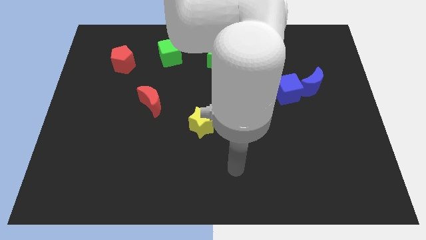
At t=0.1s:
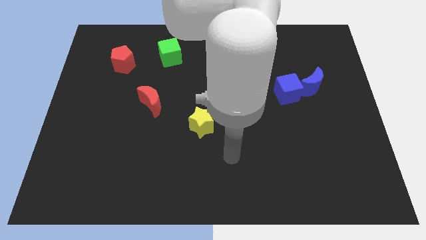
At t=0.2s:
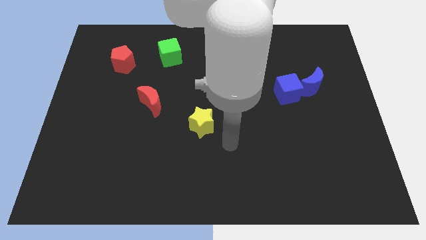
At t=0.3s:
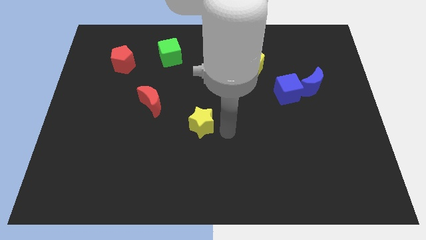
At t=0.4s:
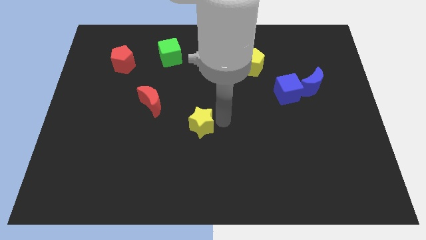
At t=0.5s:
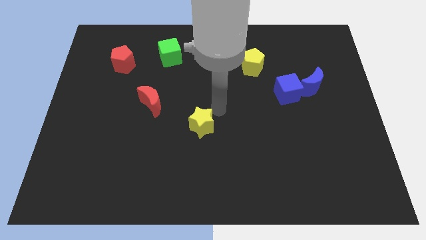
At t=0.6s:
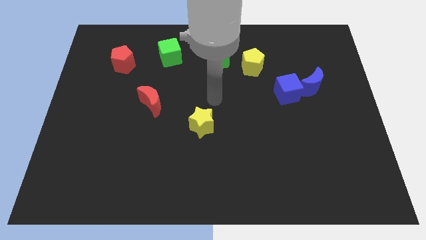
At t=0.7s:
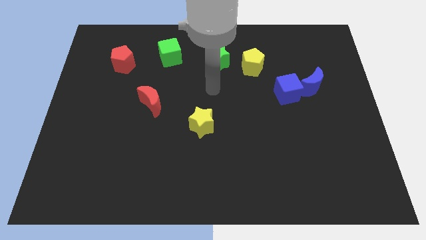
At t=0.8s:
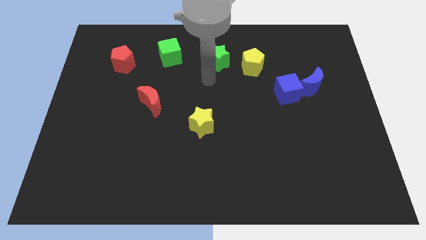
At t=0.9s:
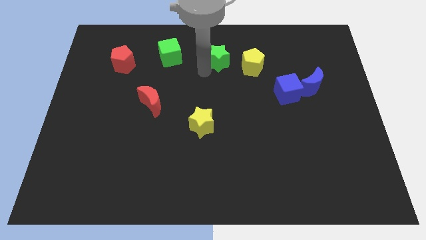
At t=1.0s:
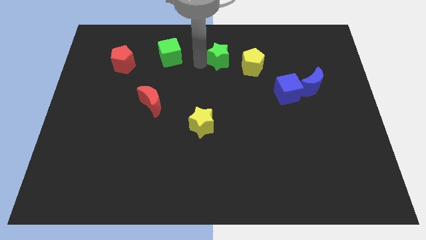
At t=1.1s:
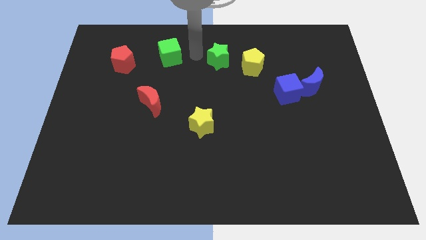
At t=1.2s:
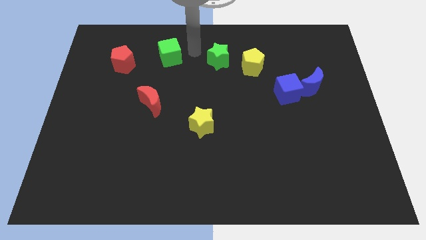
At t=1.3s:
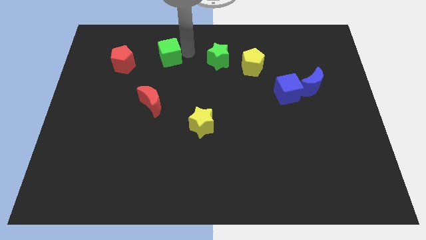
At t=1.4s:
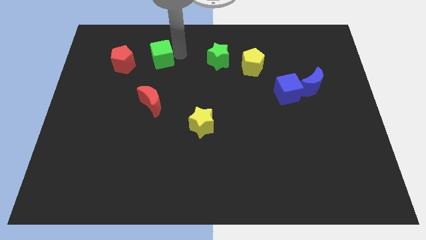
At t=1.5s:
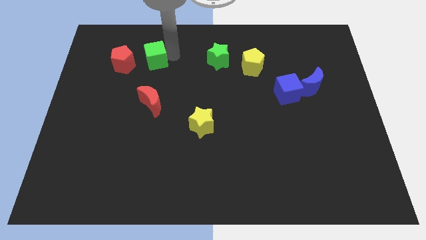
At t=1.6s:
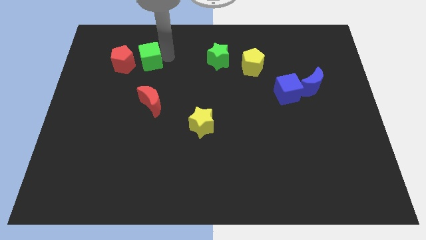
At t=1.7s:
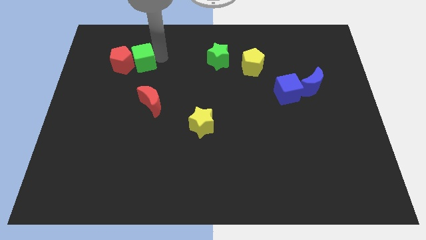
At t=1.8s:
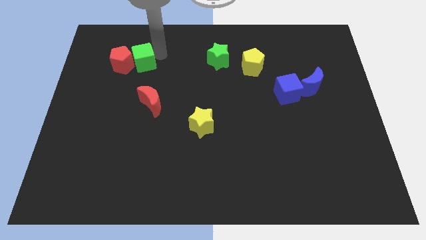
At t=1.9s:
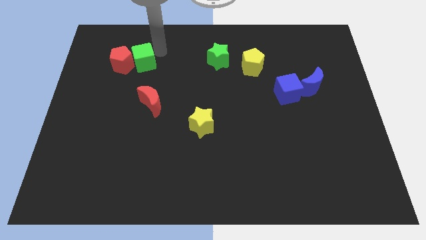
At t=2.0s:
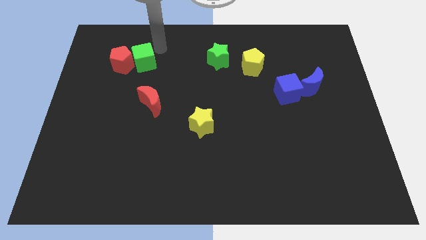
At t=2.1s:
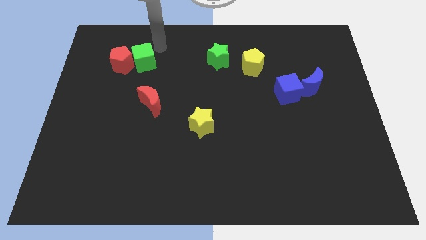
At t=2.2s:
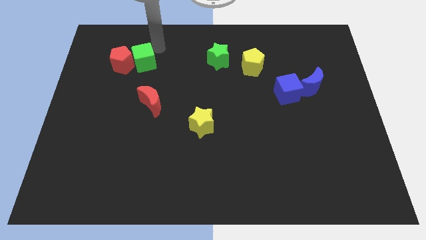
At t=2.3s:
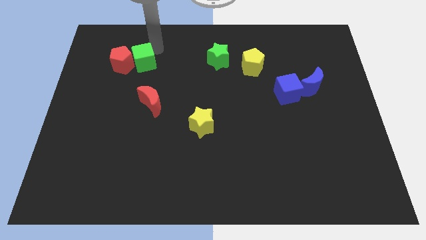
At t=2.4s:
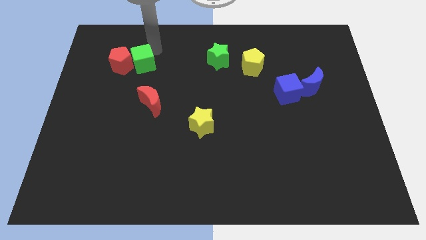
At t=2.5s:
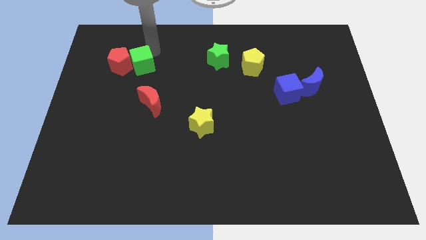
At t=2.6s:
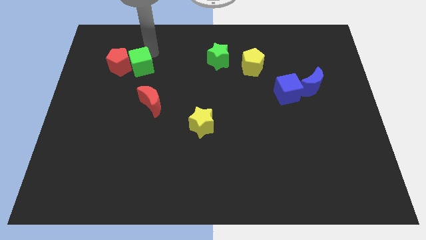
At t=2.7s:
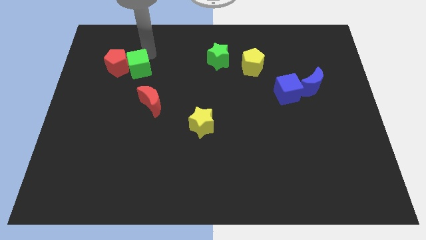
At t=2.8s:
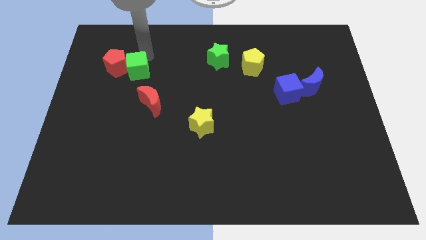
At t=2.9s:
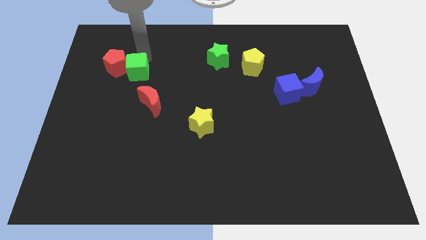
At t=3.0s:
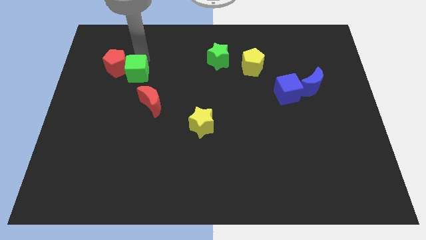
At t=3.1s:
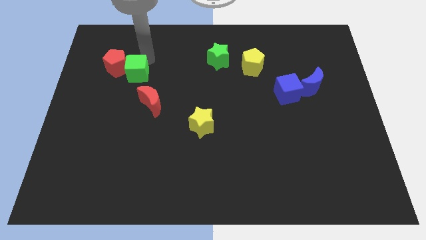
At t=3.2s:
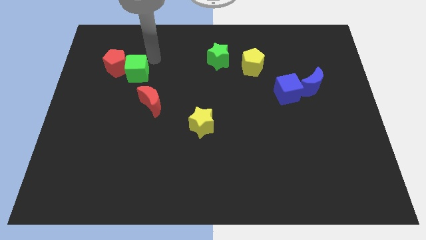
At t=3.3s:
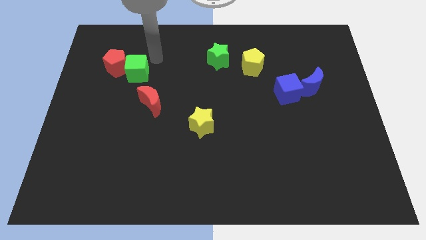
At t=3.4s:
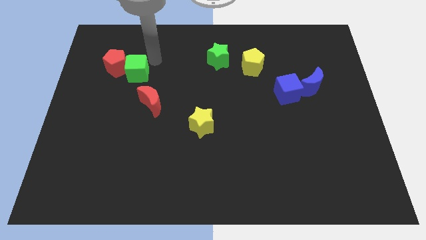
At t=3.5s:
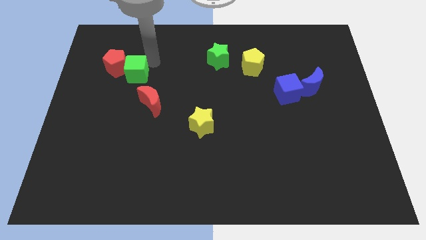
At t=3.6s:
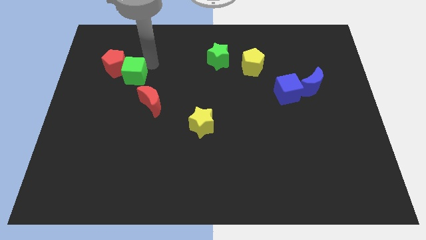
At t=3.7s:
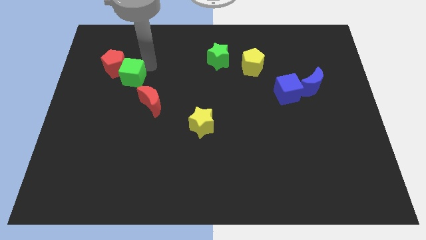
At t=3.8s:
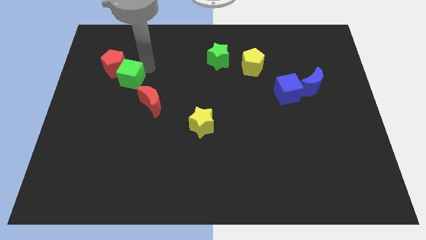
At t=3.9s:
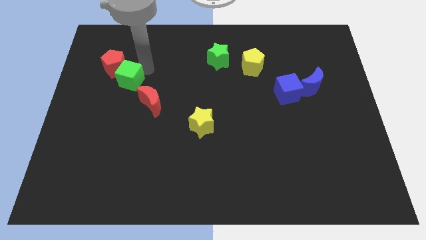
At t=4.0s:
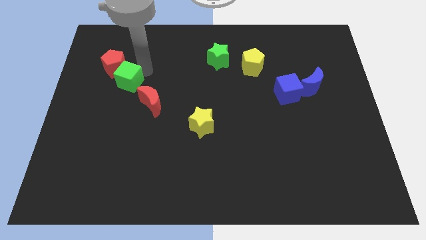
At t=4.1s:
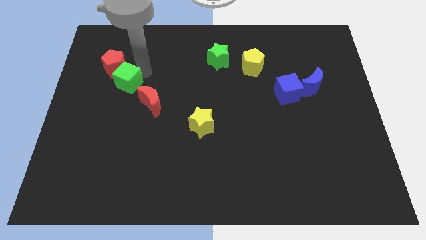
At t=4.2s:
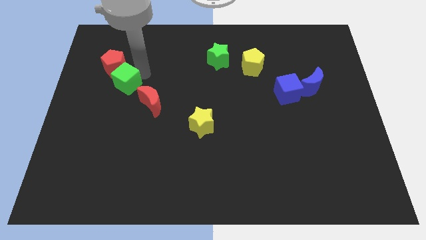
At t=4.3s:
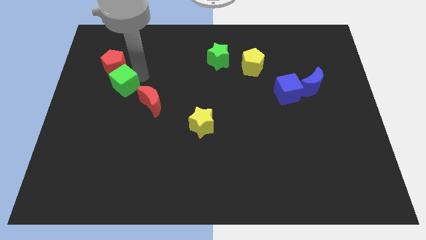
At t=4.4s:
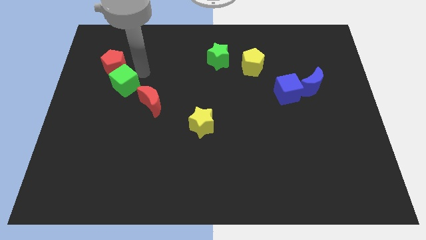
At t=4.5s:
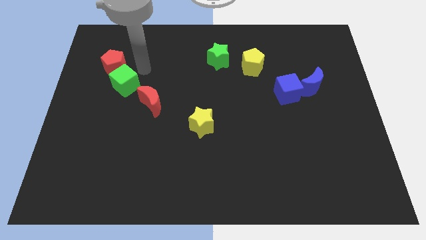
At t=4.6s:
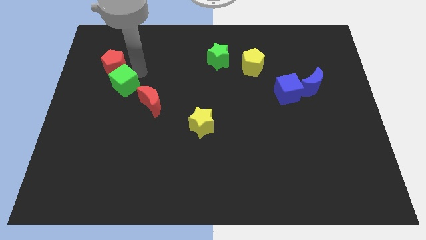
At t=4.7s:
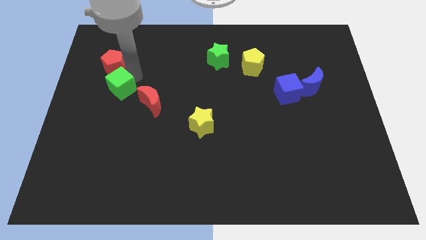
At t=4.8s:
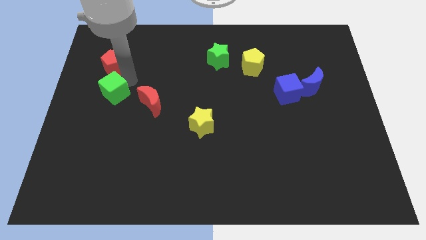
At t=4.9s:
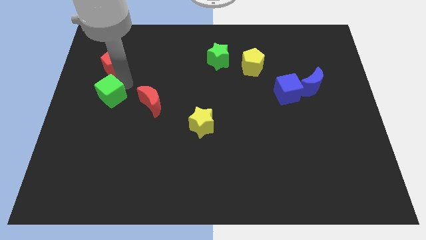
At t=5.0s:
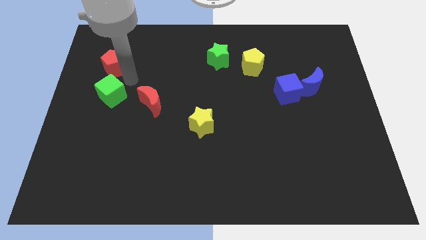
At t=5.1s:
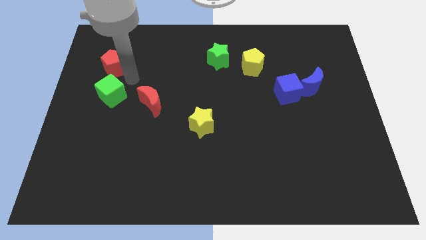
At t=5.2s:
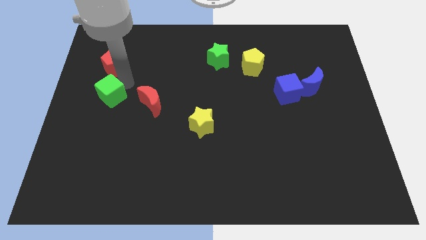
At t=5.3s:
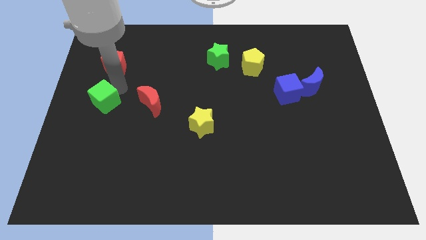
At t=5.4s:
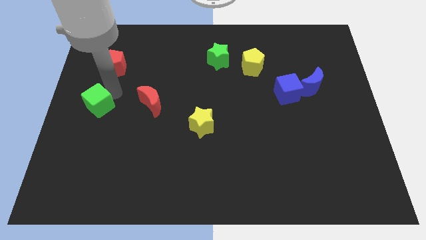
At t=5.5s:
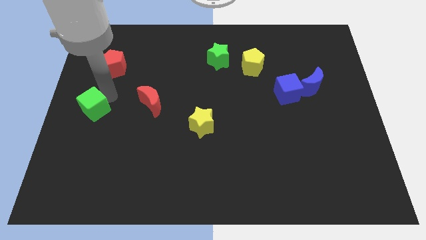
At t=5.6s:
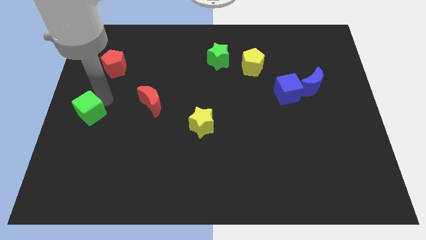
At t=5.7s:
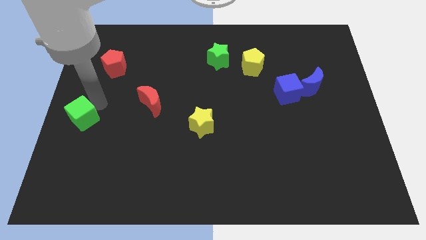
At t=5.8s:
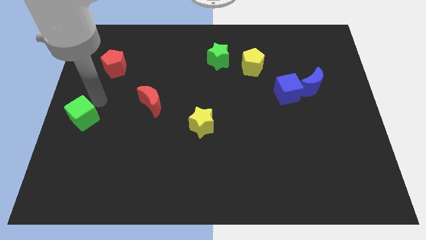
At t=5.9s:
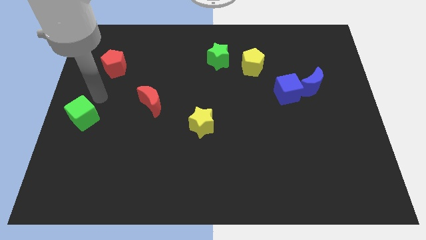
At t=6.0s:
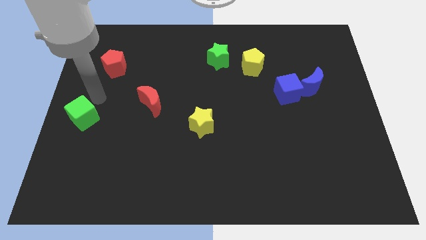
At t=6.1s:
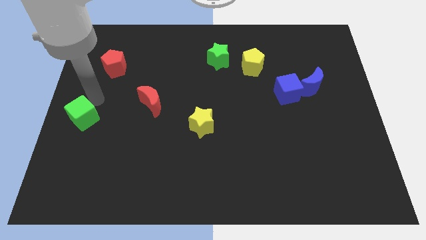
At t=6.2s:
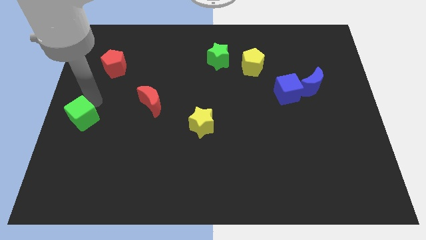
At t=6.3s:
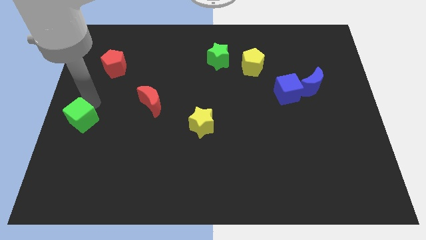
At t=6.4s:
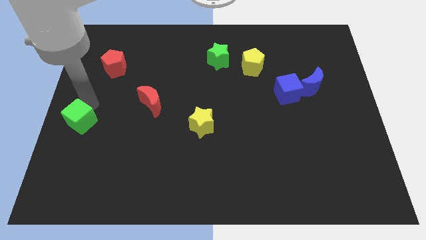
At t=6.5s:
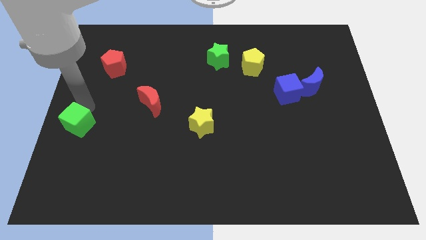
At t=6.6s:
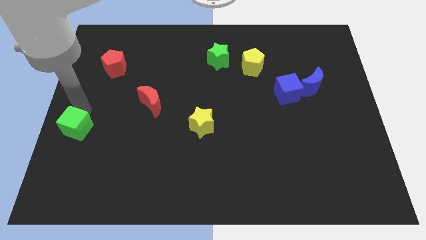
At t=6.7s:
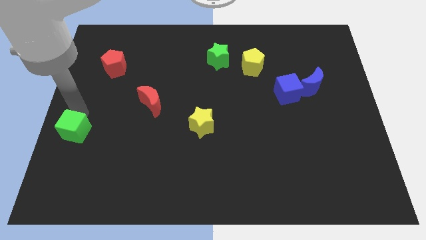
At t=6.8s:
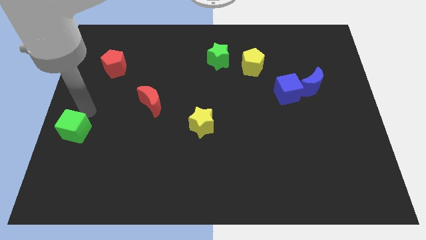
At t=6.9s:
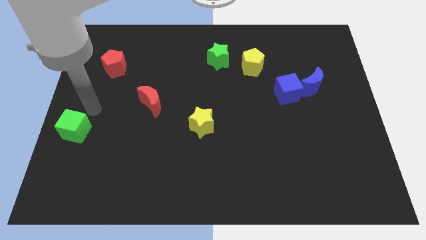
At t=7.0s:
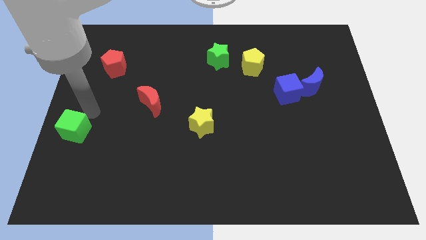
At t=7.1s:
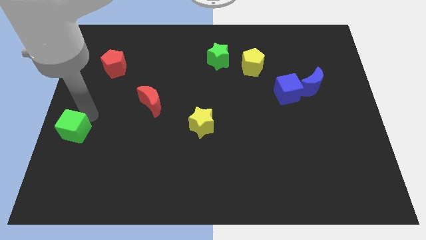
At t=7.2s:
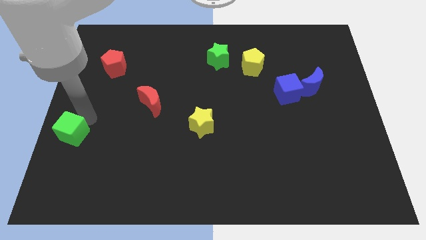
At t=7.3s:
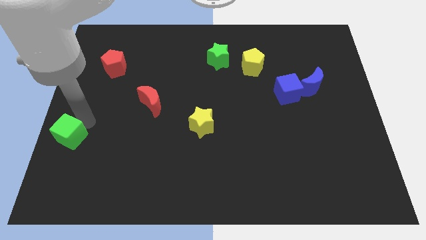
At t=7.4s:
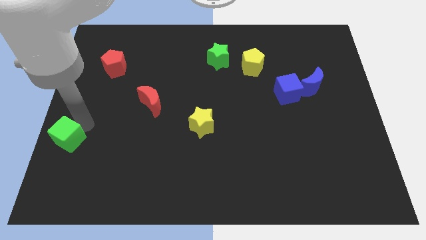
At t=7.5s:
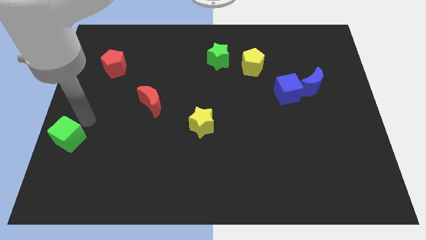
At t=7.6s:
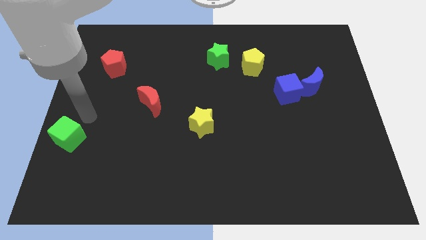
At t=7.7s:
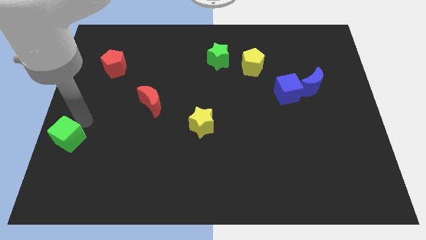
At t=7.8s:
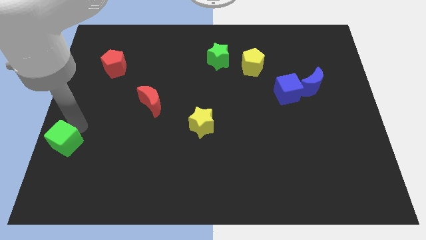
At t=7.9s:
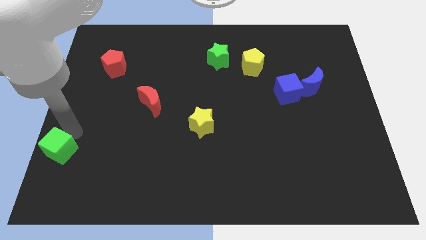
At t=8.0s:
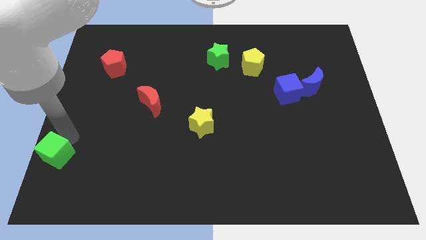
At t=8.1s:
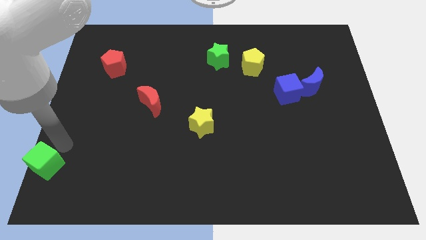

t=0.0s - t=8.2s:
slide the green cube to the bottom left of the board
